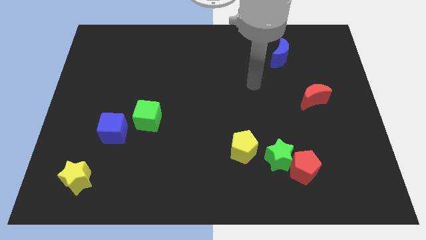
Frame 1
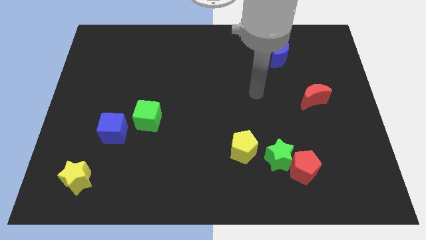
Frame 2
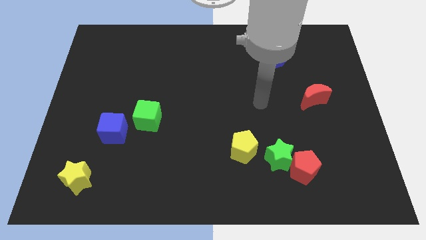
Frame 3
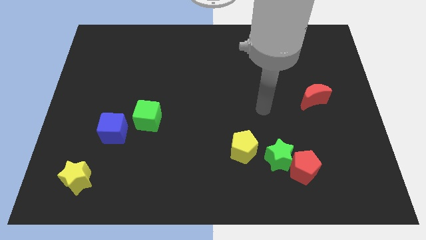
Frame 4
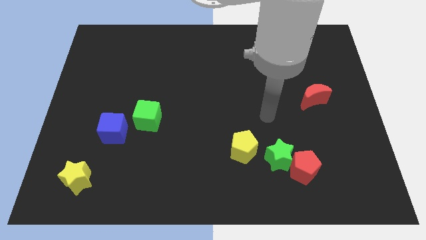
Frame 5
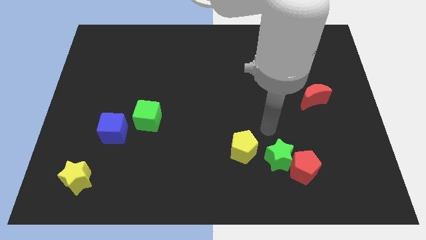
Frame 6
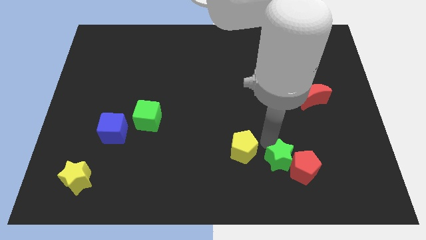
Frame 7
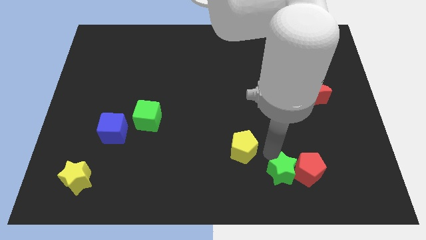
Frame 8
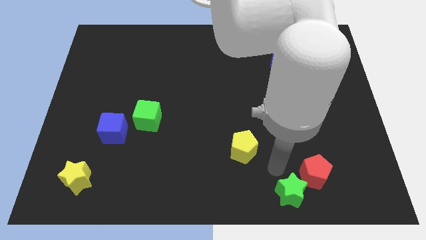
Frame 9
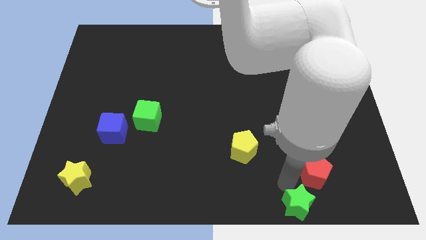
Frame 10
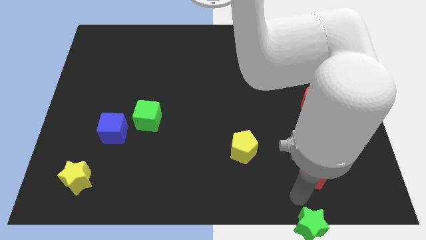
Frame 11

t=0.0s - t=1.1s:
pull the red pentagon apart from the green star

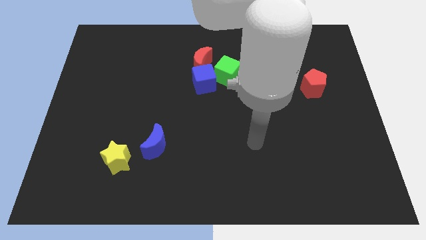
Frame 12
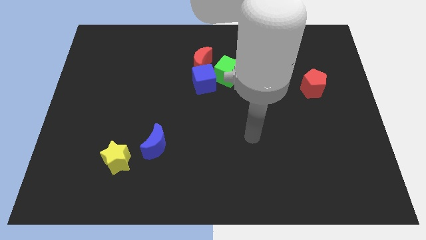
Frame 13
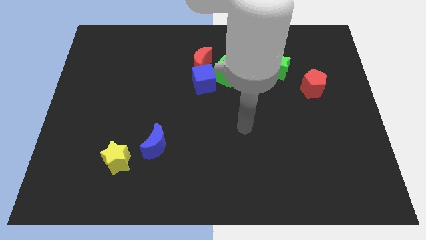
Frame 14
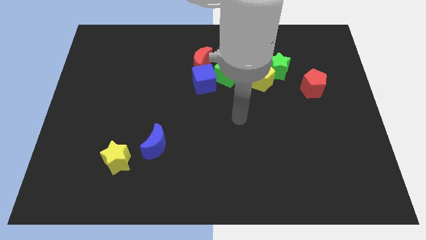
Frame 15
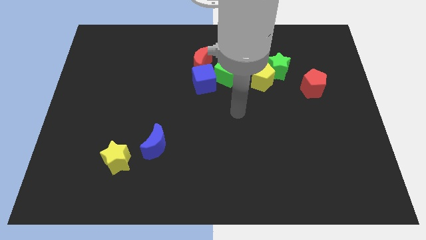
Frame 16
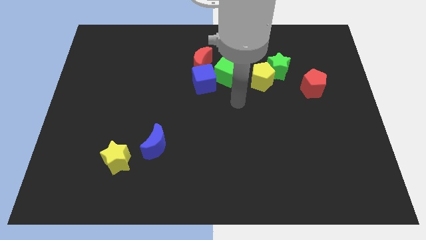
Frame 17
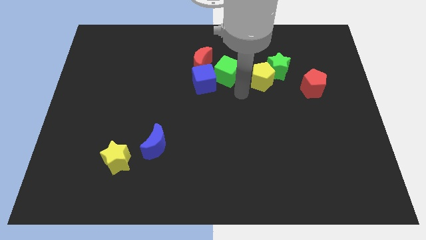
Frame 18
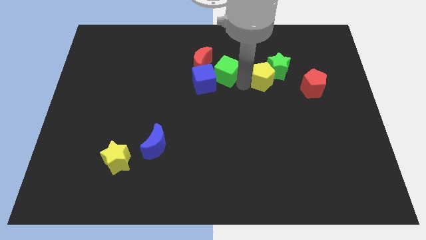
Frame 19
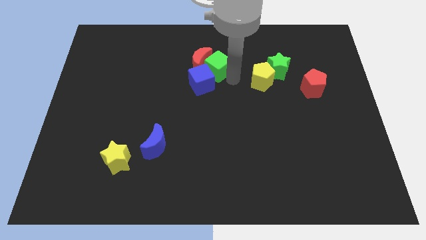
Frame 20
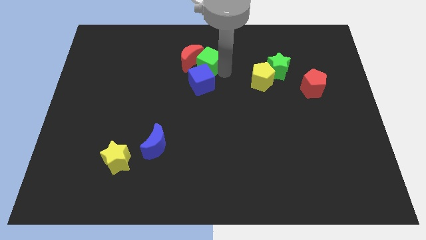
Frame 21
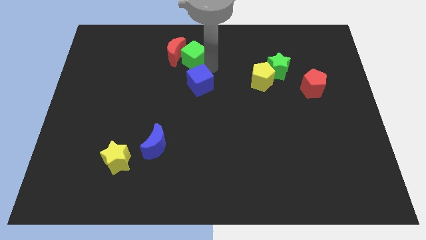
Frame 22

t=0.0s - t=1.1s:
separate the blue cube from the green cube and red moon

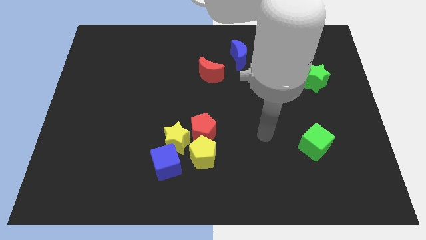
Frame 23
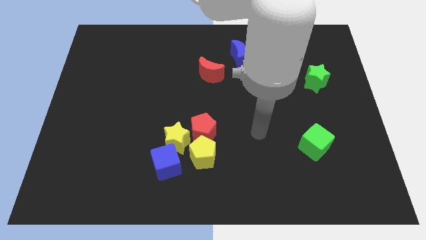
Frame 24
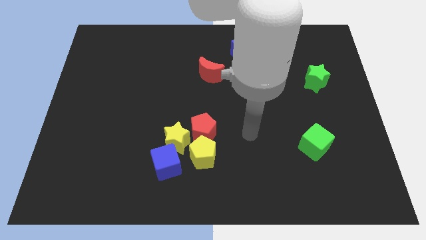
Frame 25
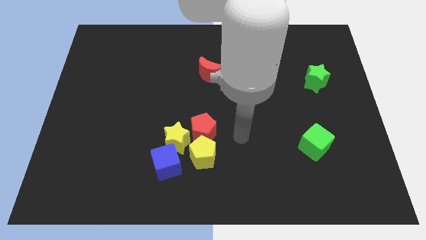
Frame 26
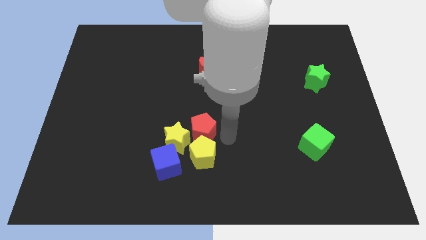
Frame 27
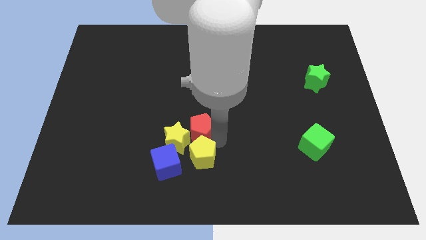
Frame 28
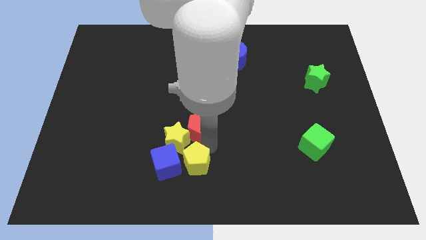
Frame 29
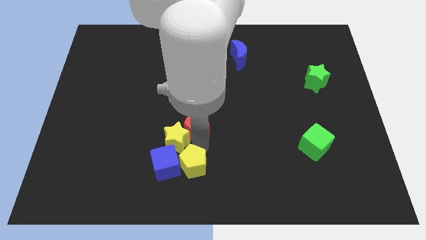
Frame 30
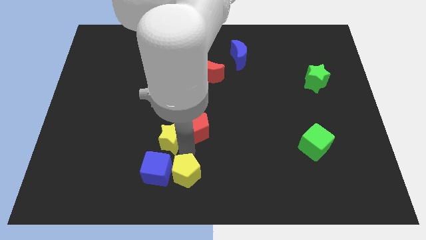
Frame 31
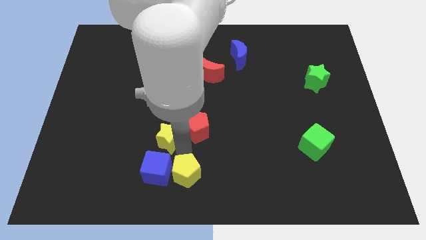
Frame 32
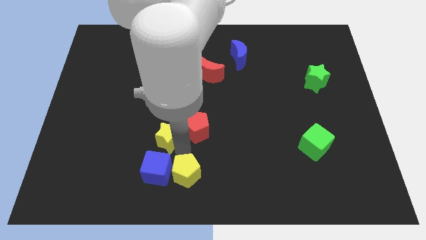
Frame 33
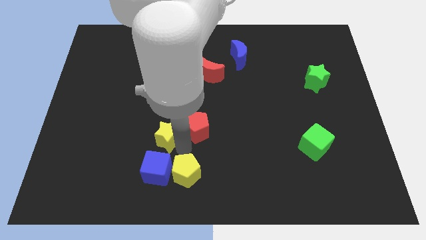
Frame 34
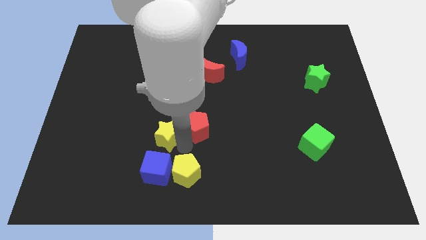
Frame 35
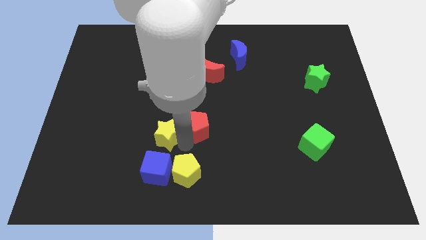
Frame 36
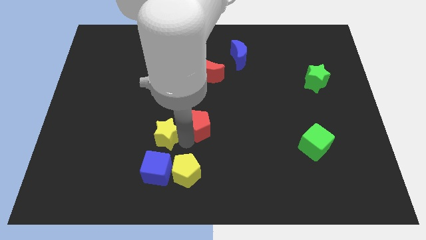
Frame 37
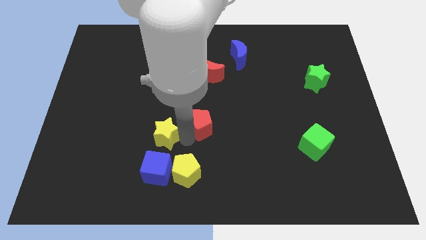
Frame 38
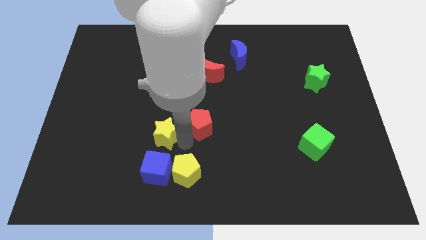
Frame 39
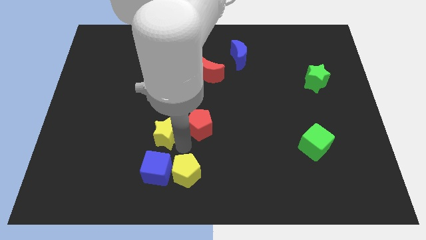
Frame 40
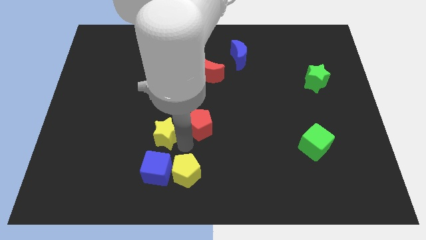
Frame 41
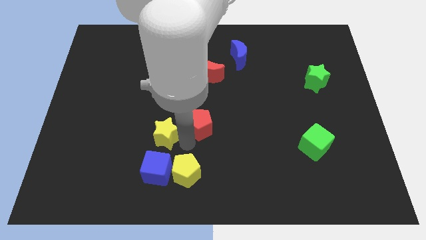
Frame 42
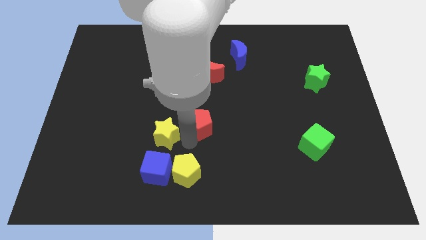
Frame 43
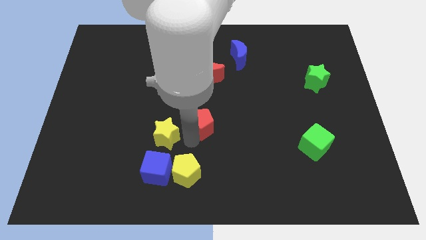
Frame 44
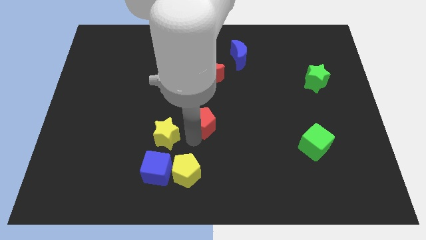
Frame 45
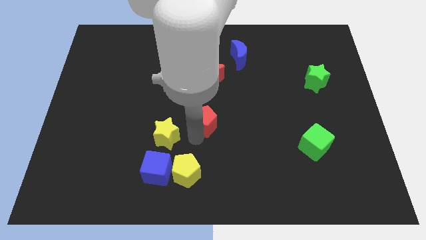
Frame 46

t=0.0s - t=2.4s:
separate the red pentagon from the yellow star and yellow pentagon

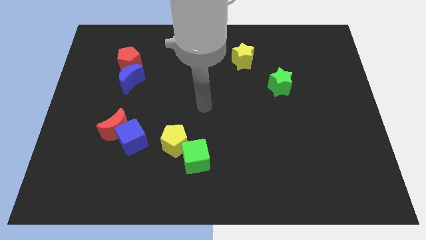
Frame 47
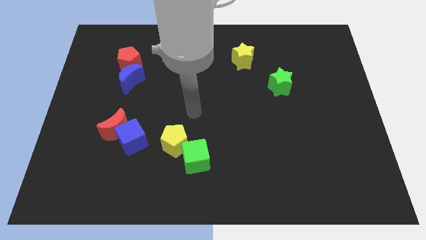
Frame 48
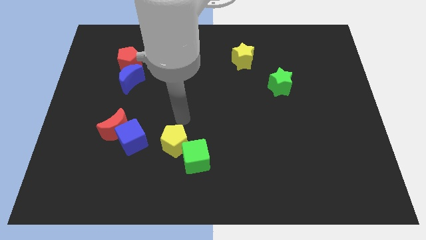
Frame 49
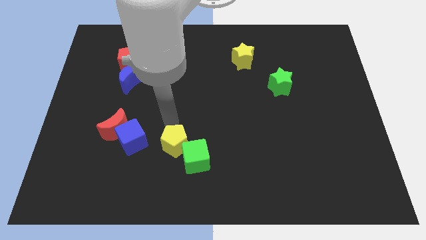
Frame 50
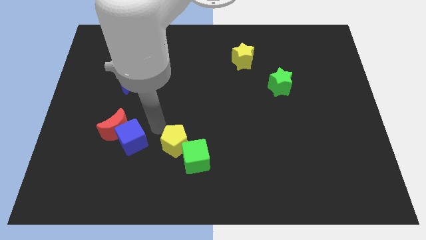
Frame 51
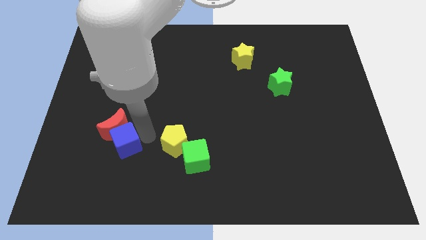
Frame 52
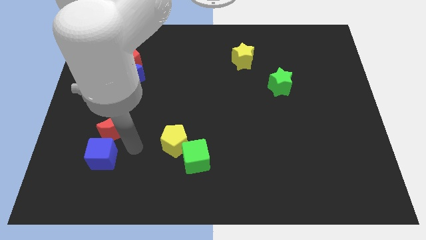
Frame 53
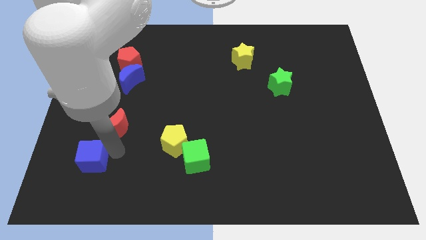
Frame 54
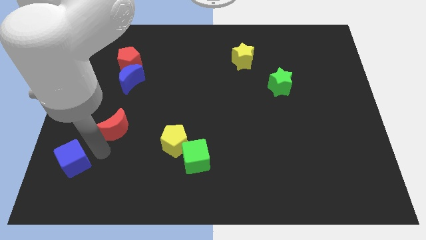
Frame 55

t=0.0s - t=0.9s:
move the red moon away from the blue cube

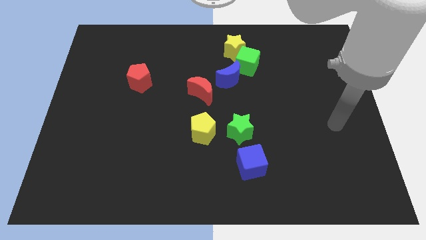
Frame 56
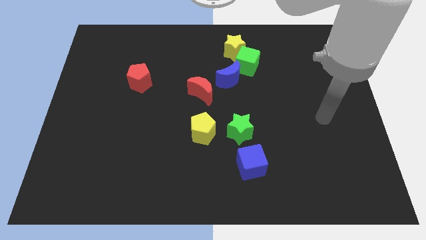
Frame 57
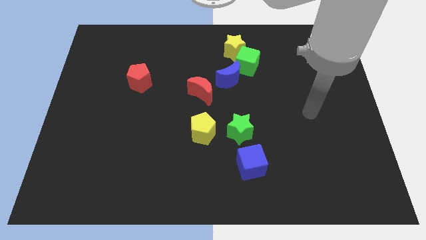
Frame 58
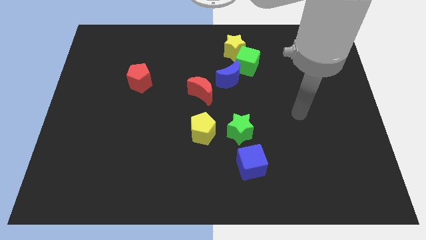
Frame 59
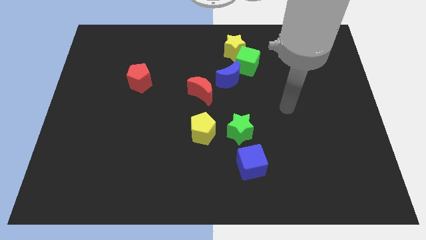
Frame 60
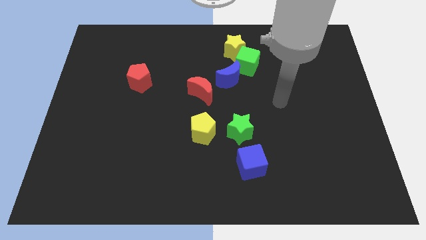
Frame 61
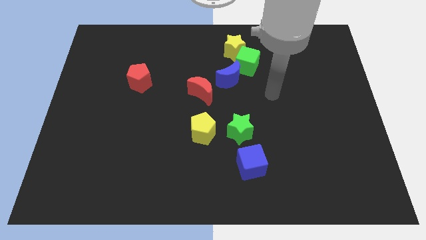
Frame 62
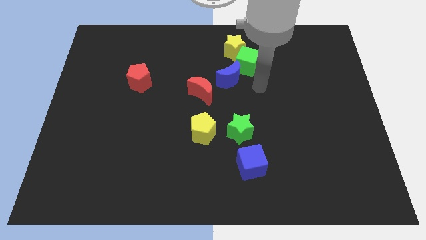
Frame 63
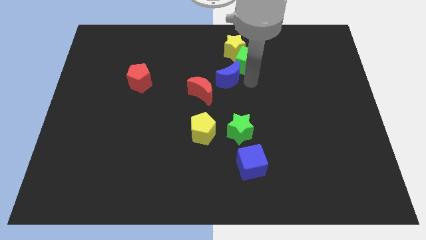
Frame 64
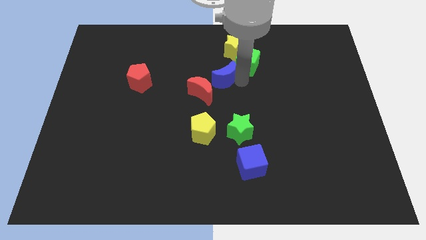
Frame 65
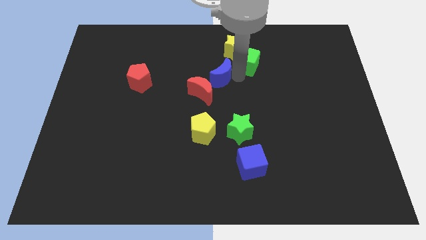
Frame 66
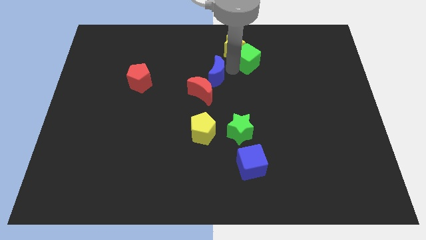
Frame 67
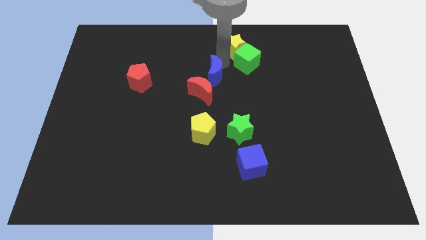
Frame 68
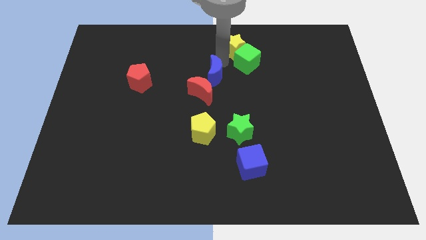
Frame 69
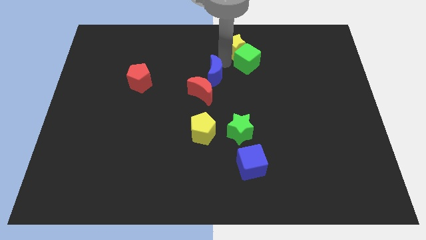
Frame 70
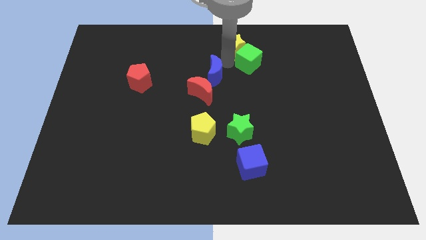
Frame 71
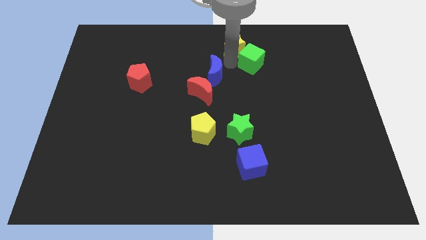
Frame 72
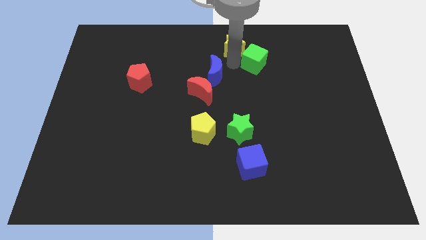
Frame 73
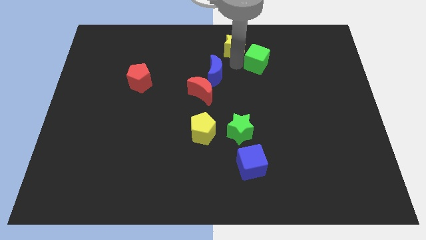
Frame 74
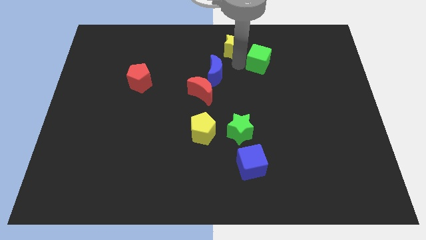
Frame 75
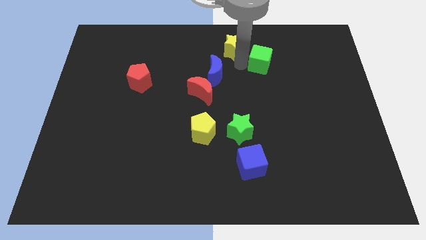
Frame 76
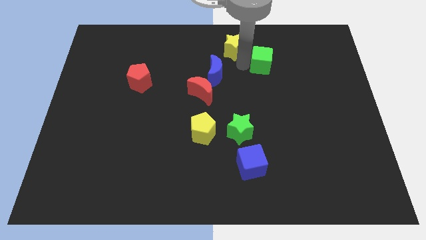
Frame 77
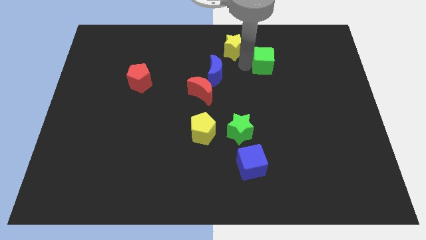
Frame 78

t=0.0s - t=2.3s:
pull the green cube apart from the yellow star and blue moon

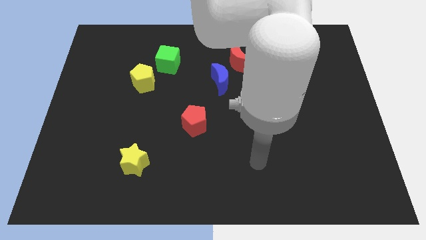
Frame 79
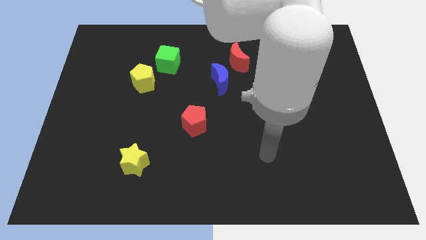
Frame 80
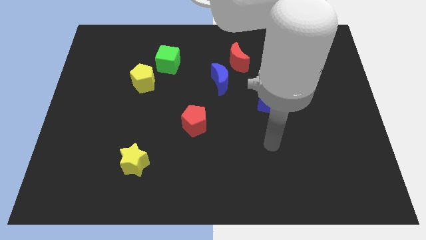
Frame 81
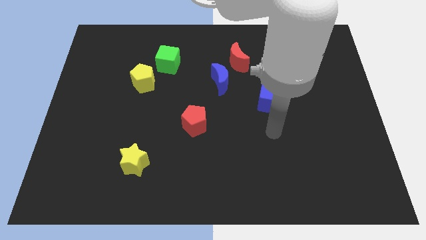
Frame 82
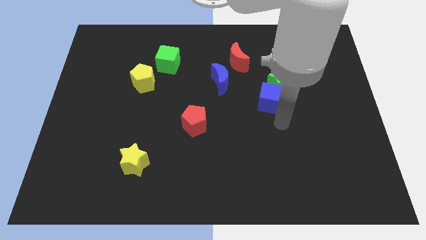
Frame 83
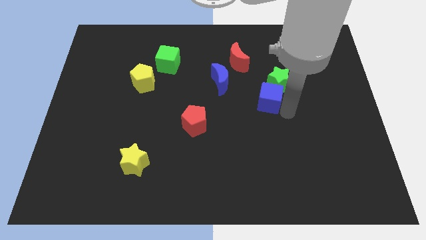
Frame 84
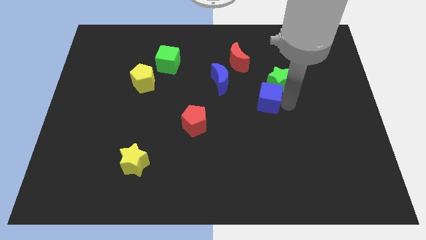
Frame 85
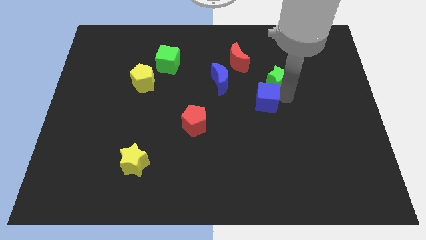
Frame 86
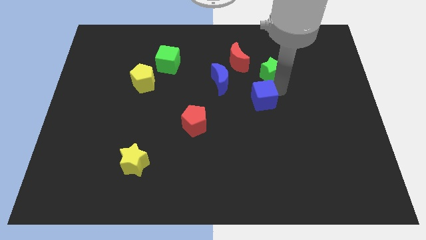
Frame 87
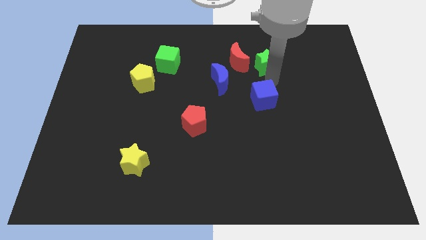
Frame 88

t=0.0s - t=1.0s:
separate the blue cube from the green star

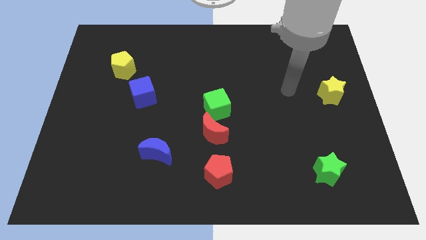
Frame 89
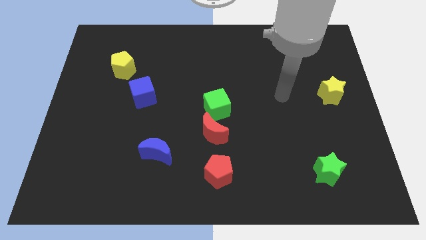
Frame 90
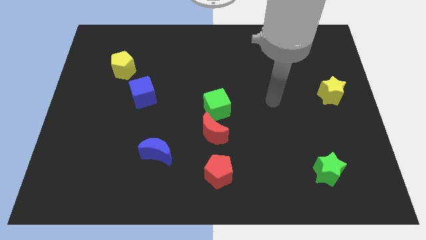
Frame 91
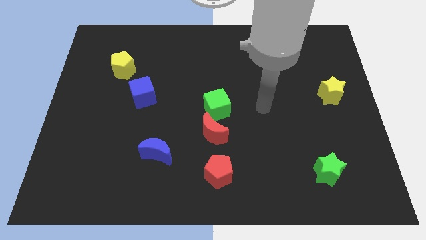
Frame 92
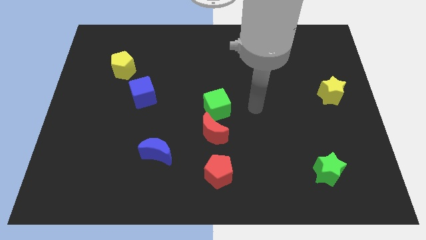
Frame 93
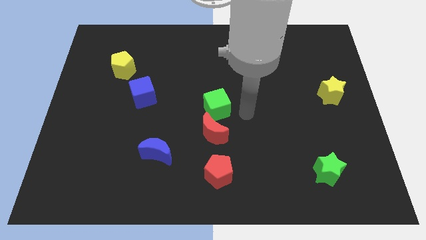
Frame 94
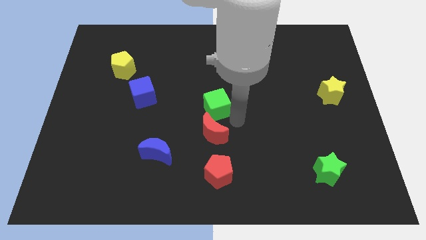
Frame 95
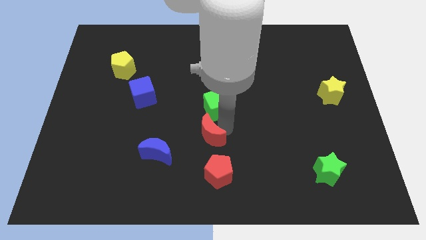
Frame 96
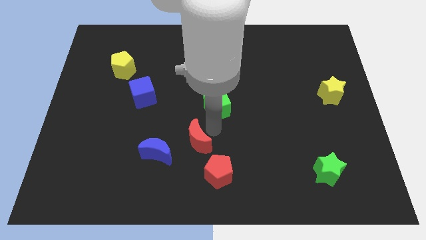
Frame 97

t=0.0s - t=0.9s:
pull the green cube apart from the red moon
